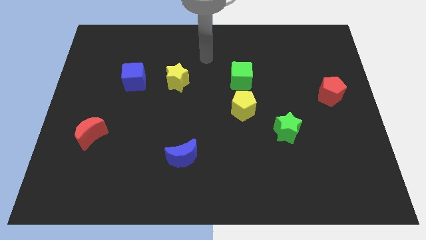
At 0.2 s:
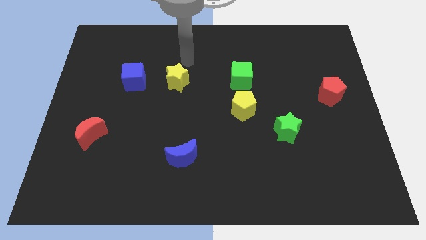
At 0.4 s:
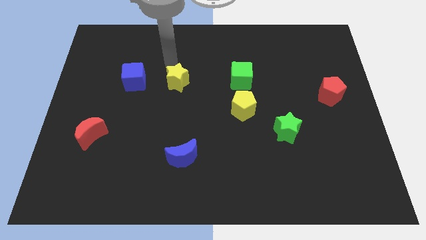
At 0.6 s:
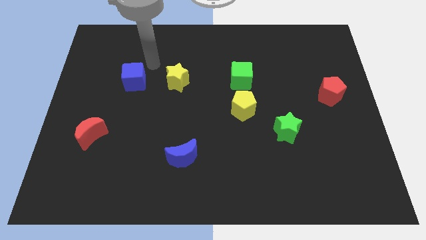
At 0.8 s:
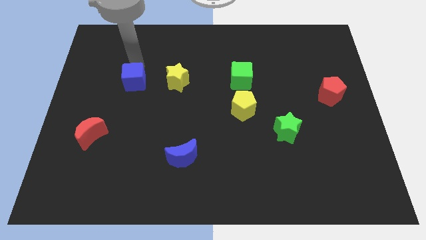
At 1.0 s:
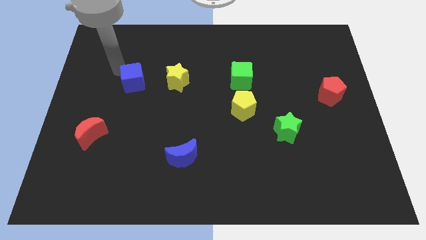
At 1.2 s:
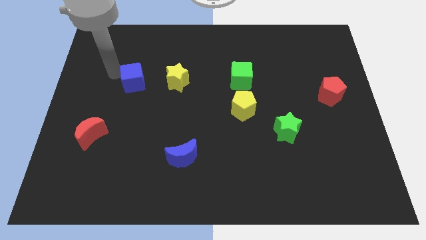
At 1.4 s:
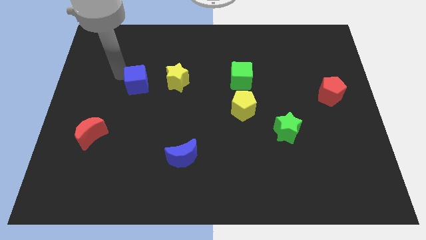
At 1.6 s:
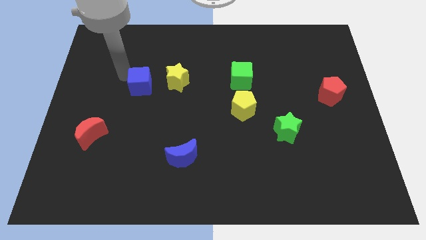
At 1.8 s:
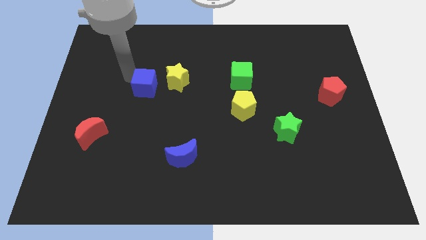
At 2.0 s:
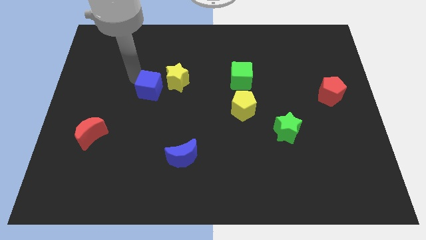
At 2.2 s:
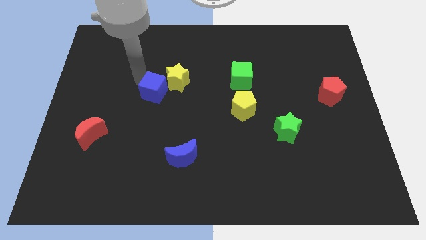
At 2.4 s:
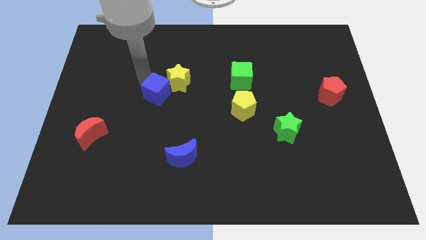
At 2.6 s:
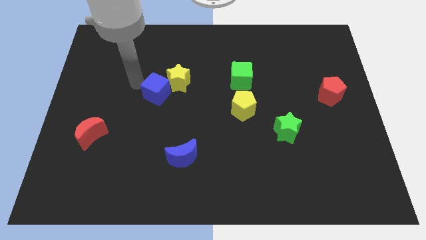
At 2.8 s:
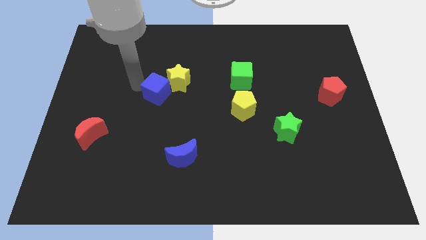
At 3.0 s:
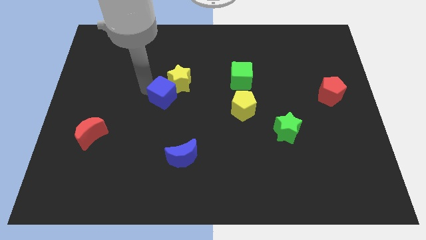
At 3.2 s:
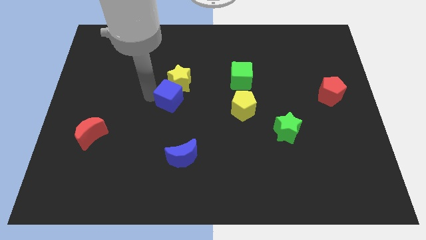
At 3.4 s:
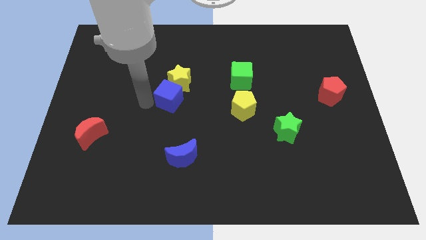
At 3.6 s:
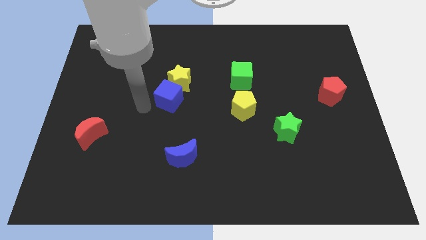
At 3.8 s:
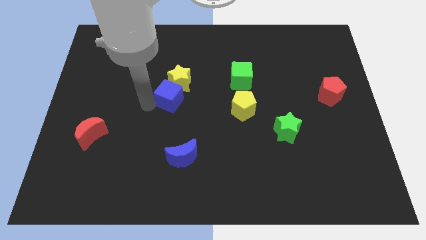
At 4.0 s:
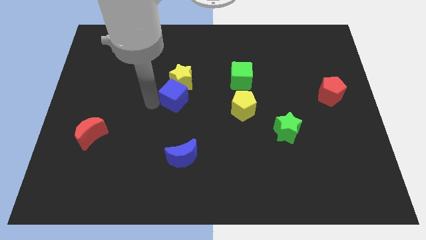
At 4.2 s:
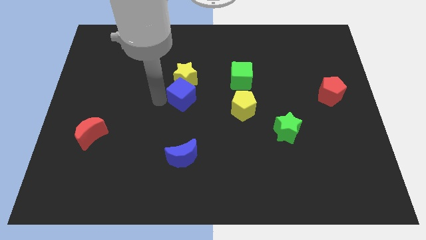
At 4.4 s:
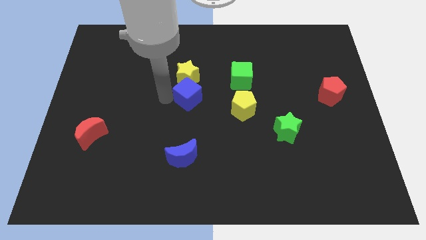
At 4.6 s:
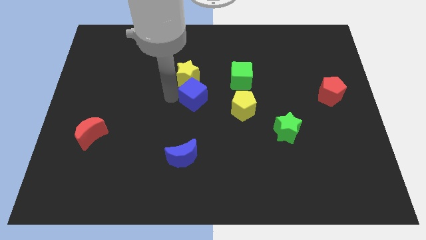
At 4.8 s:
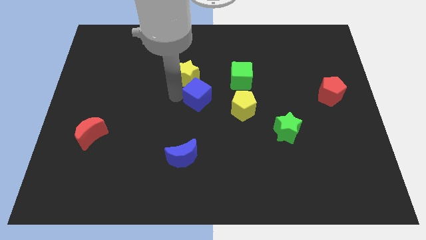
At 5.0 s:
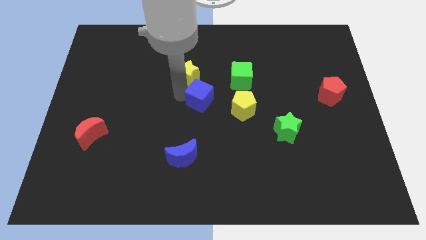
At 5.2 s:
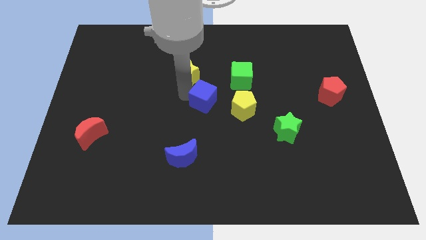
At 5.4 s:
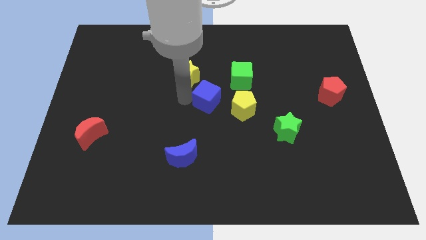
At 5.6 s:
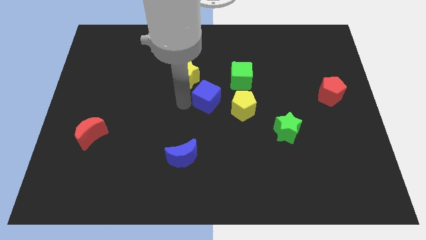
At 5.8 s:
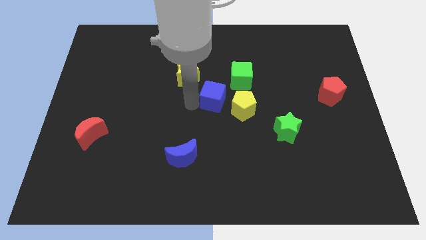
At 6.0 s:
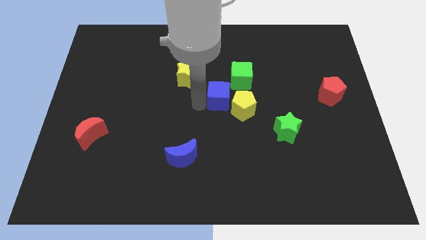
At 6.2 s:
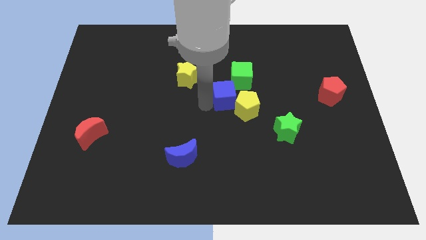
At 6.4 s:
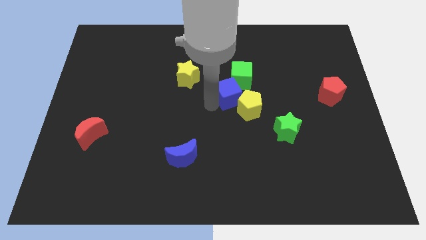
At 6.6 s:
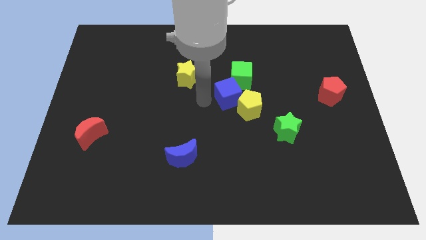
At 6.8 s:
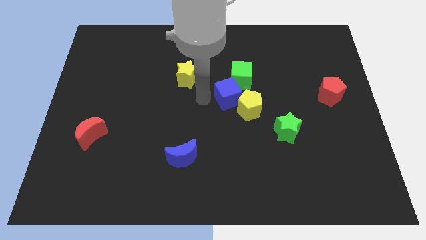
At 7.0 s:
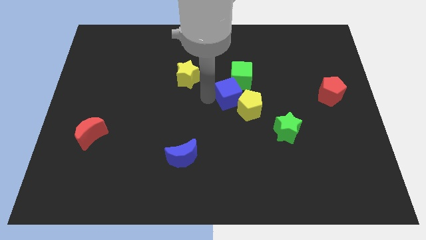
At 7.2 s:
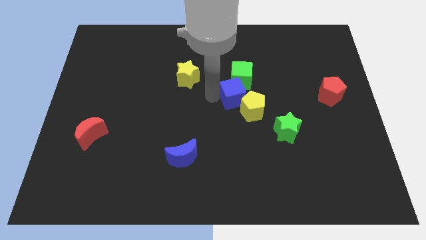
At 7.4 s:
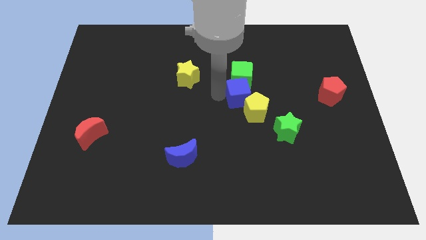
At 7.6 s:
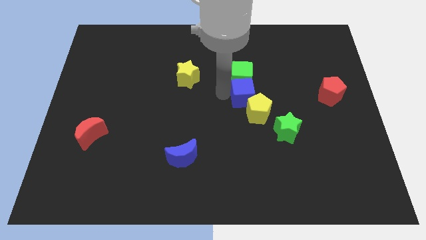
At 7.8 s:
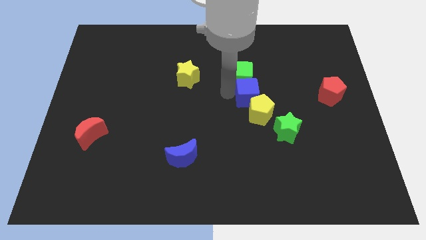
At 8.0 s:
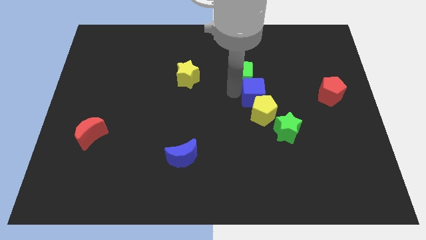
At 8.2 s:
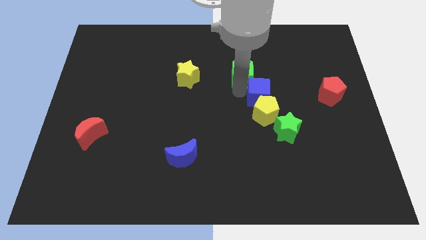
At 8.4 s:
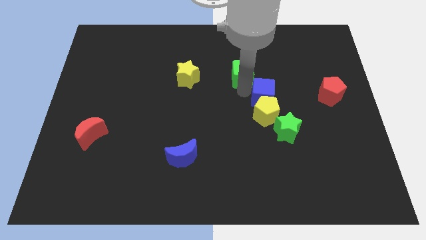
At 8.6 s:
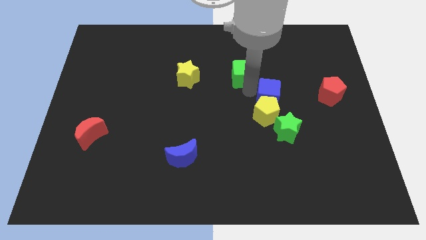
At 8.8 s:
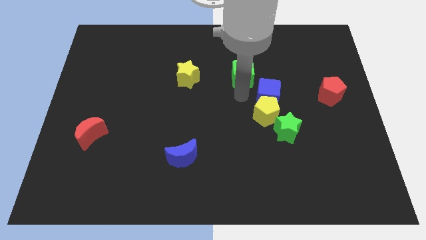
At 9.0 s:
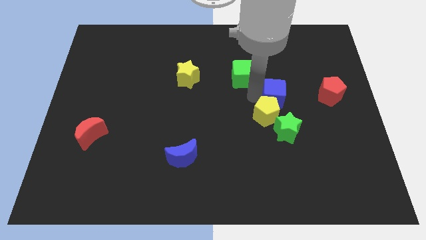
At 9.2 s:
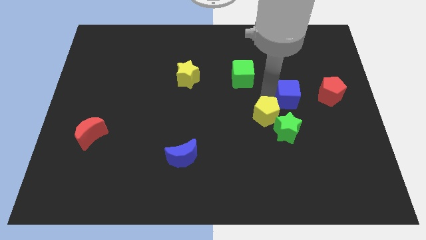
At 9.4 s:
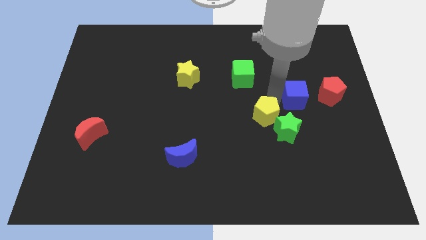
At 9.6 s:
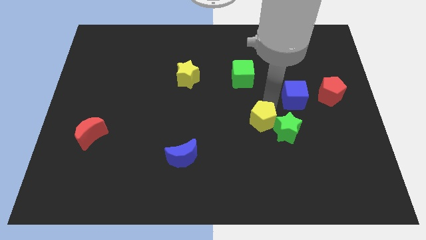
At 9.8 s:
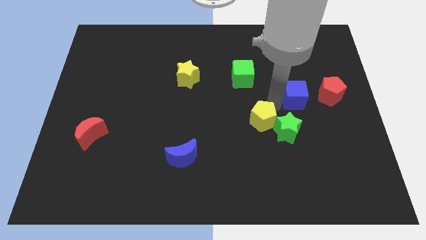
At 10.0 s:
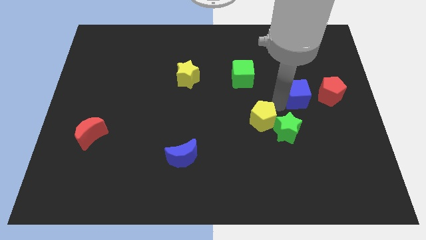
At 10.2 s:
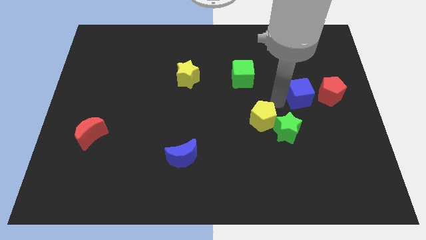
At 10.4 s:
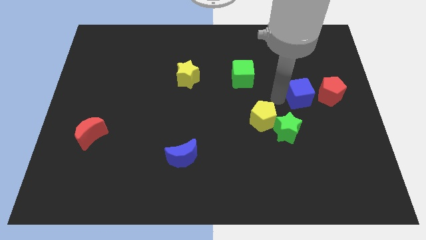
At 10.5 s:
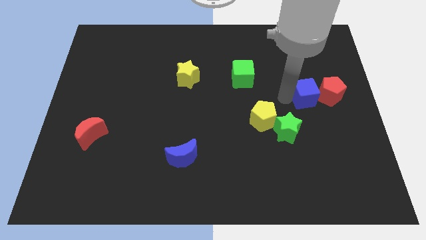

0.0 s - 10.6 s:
slide the blue cube next to the red pentagon

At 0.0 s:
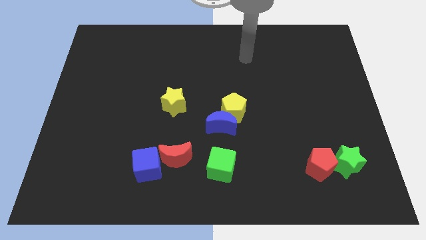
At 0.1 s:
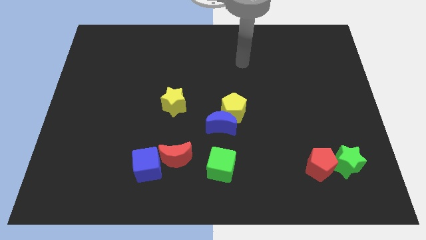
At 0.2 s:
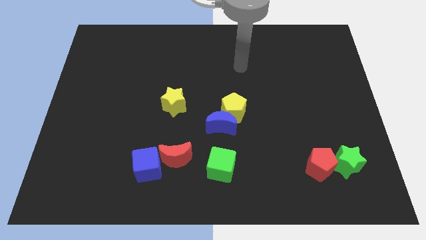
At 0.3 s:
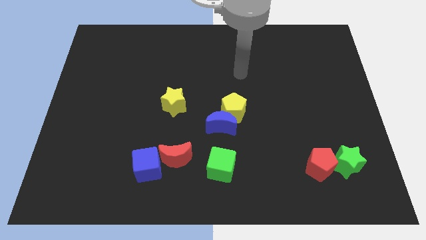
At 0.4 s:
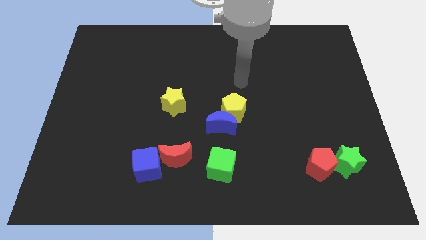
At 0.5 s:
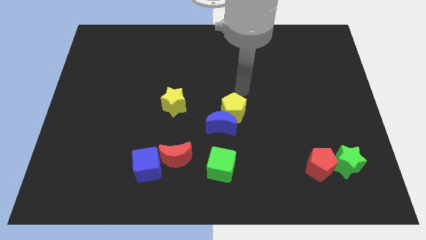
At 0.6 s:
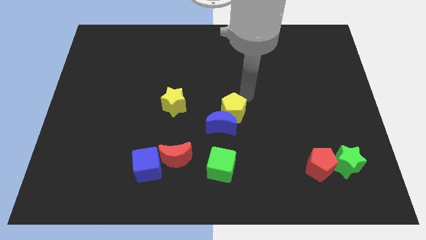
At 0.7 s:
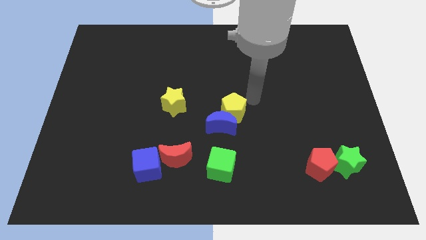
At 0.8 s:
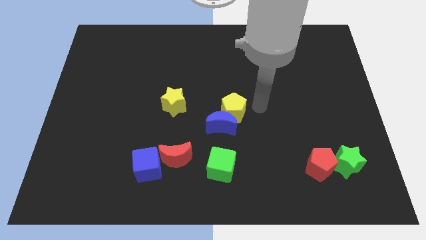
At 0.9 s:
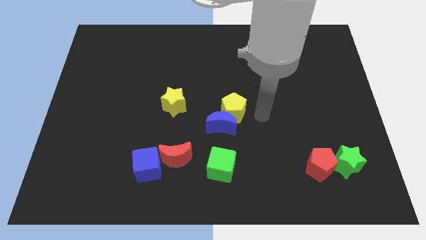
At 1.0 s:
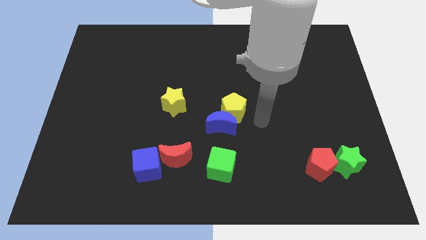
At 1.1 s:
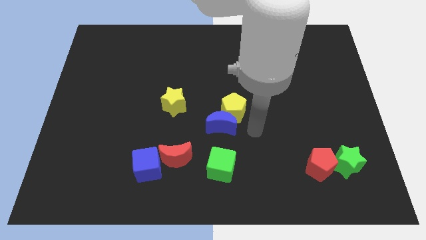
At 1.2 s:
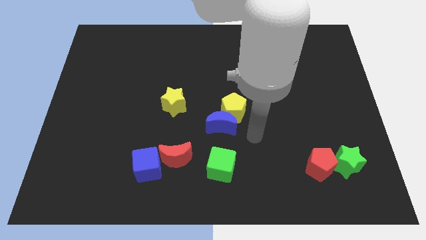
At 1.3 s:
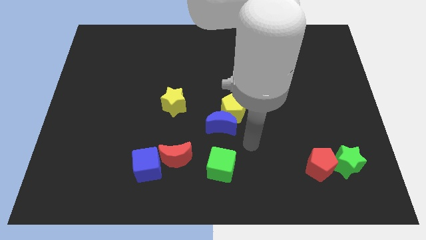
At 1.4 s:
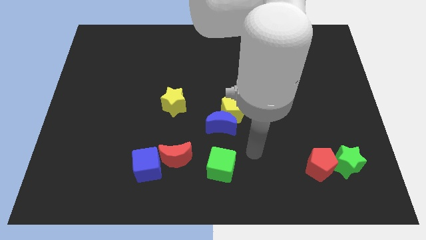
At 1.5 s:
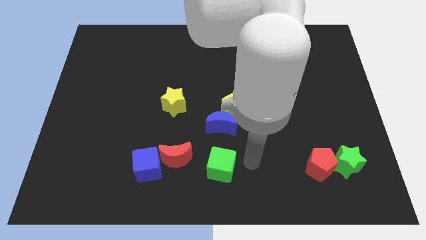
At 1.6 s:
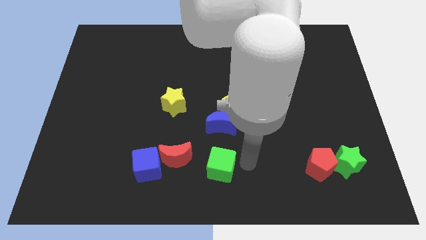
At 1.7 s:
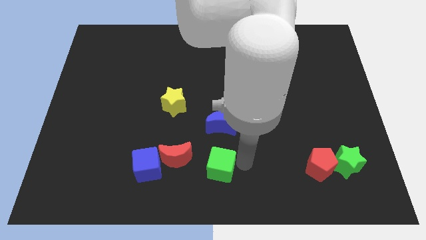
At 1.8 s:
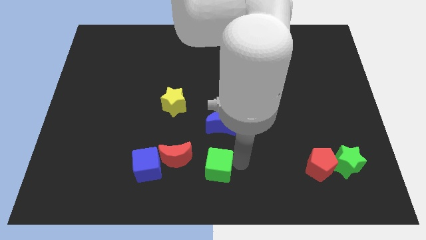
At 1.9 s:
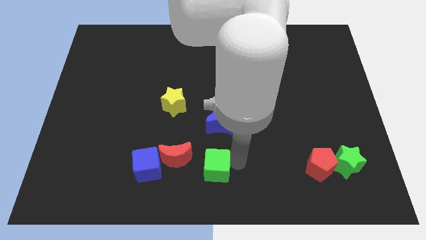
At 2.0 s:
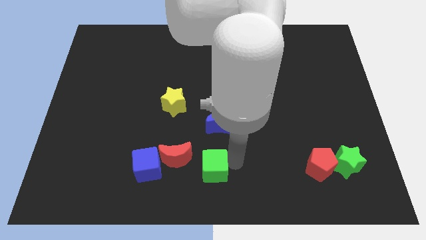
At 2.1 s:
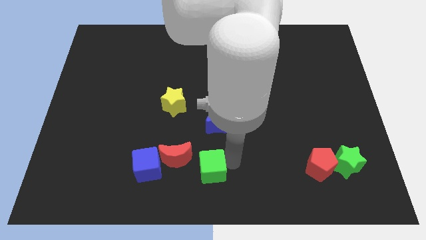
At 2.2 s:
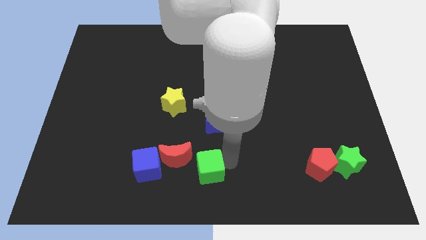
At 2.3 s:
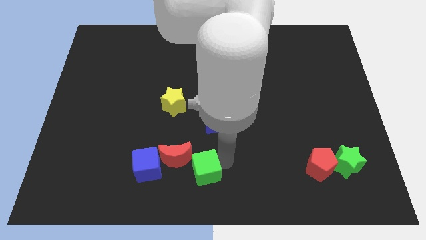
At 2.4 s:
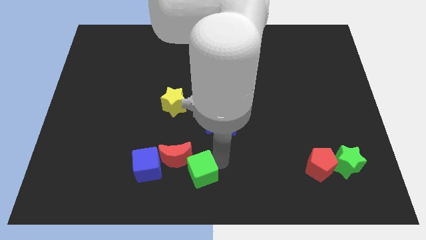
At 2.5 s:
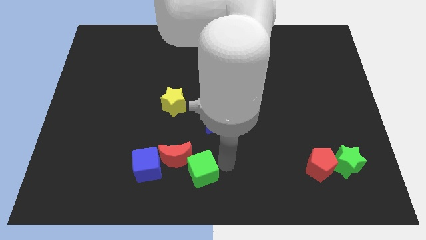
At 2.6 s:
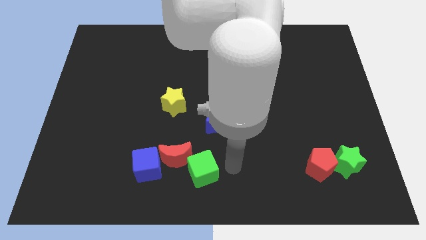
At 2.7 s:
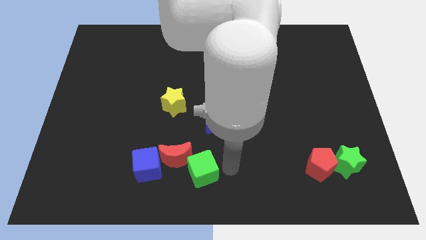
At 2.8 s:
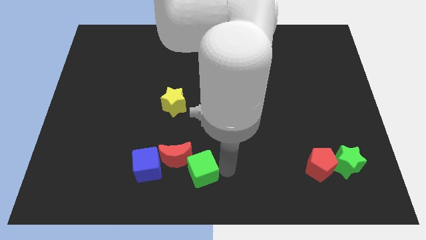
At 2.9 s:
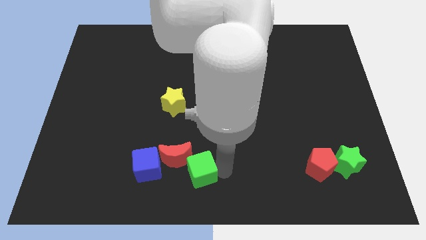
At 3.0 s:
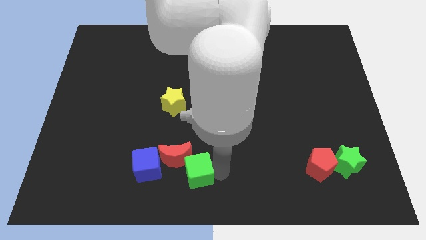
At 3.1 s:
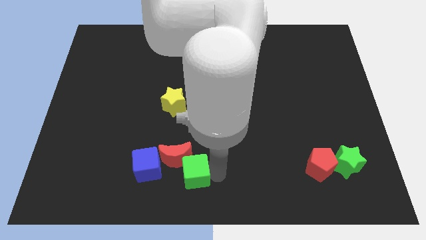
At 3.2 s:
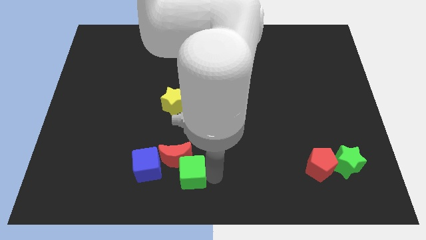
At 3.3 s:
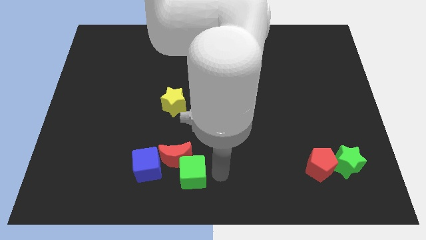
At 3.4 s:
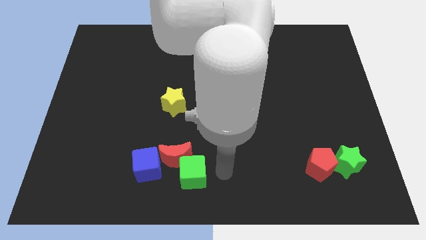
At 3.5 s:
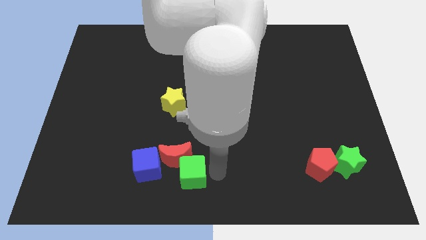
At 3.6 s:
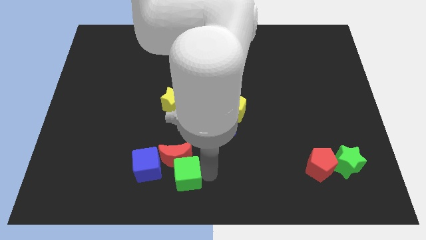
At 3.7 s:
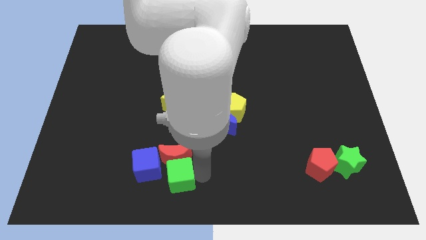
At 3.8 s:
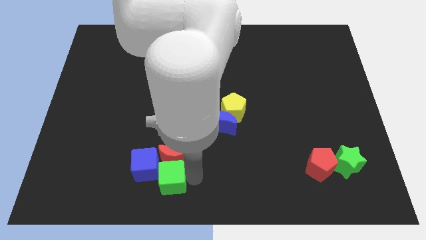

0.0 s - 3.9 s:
put the green cube towards the blue cube
